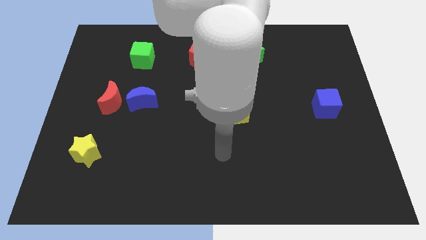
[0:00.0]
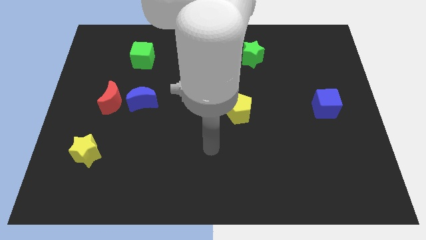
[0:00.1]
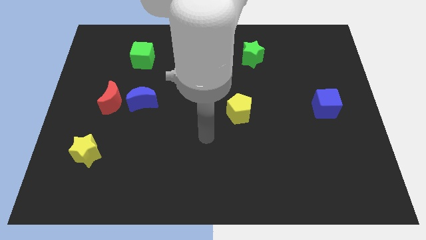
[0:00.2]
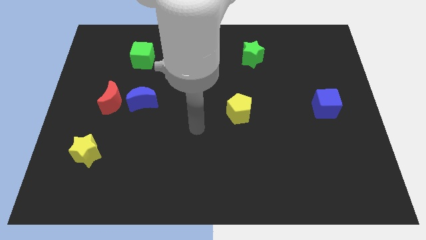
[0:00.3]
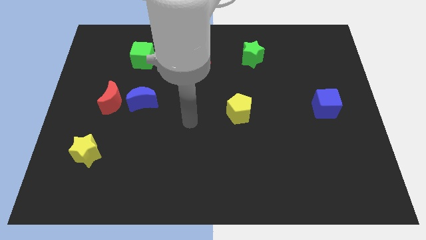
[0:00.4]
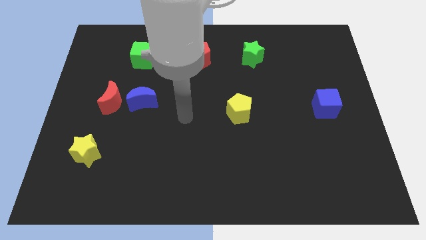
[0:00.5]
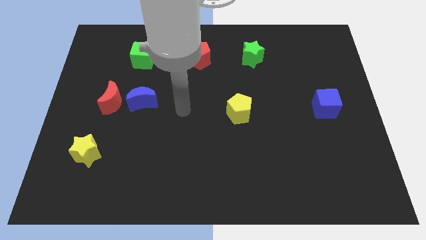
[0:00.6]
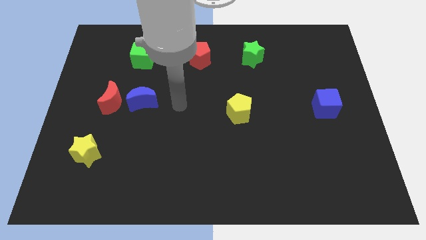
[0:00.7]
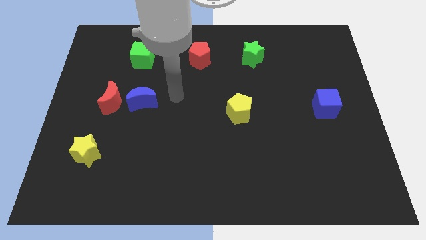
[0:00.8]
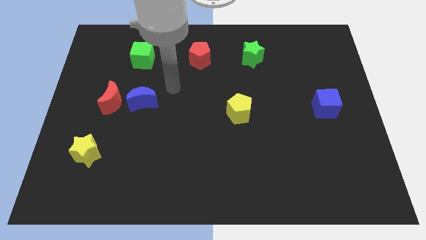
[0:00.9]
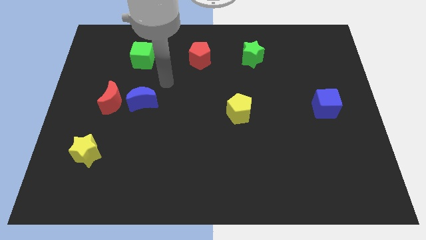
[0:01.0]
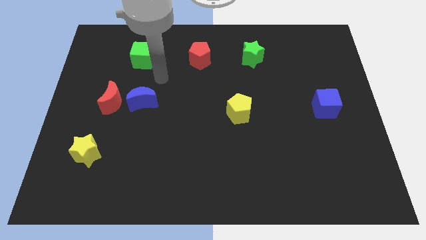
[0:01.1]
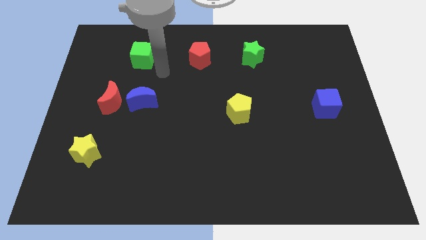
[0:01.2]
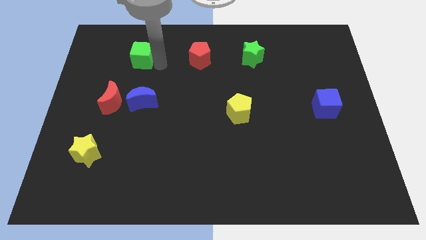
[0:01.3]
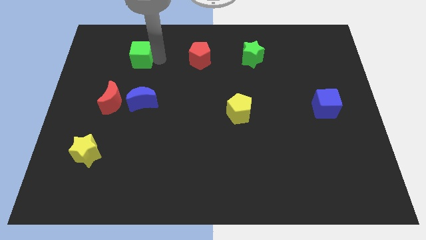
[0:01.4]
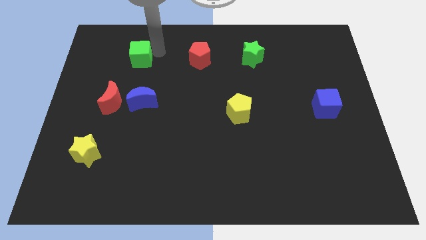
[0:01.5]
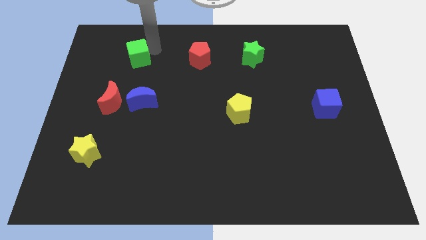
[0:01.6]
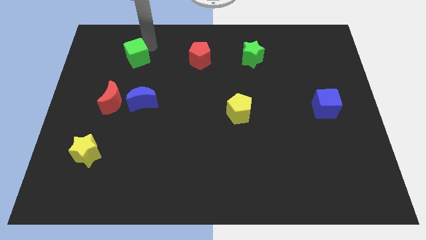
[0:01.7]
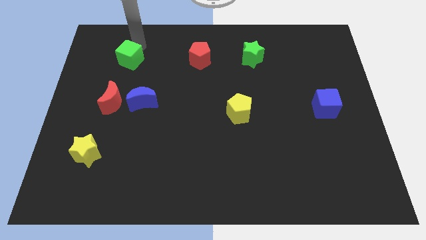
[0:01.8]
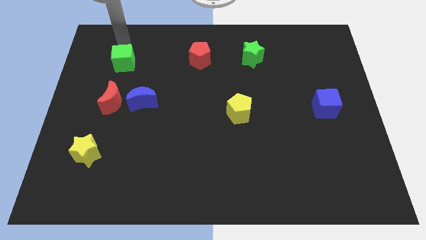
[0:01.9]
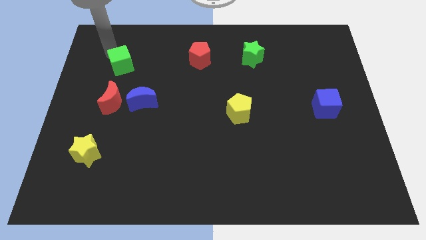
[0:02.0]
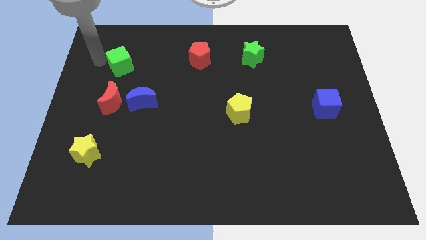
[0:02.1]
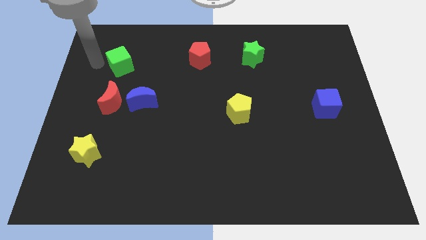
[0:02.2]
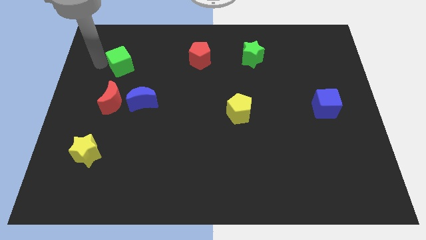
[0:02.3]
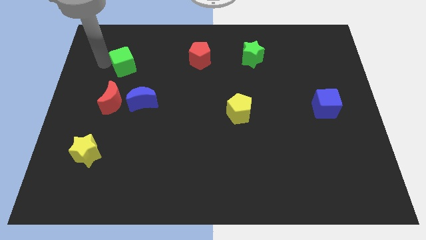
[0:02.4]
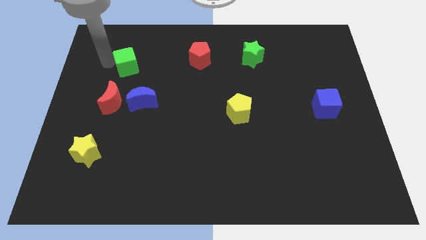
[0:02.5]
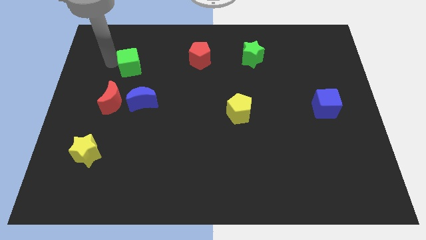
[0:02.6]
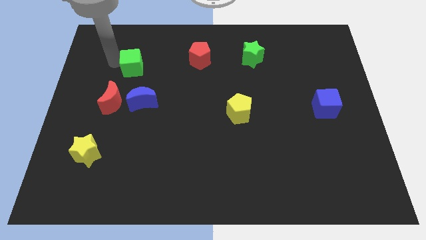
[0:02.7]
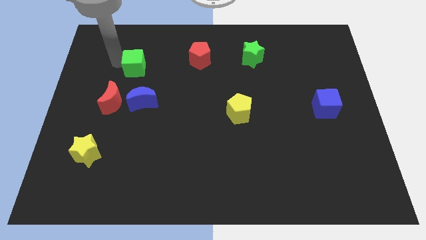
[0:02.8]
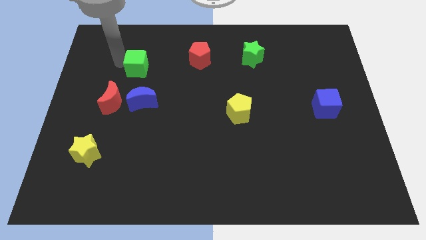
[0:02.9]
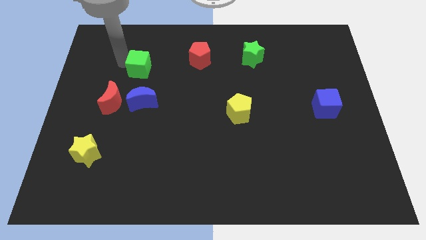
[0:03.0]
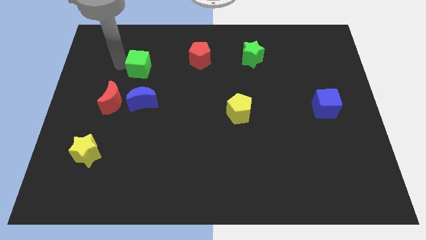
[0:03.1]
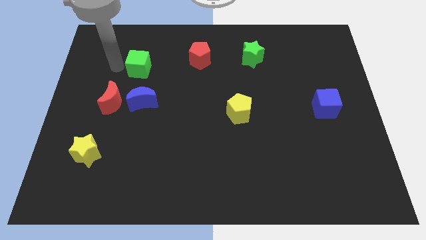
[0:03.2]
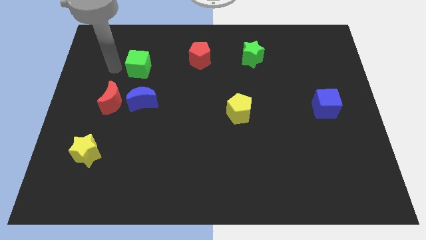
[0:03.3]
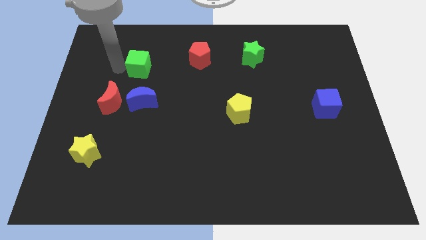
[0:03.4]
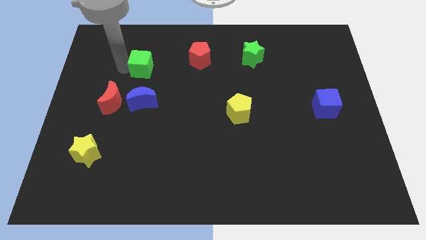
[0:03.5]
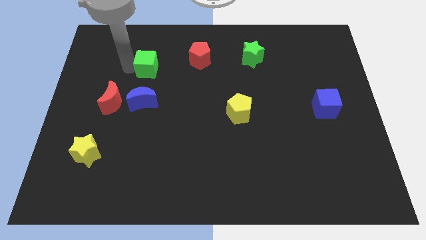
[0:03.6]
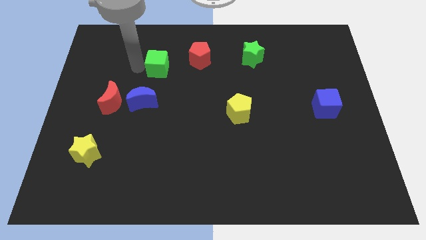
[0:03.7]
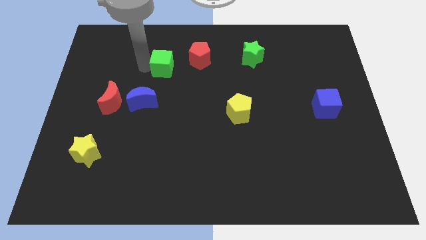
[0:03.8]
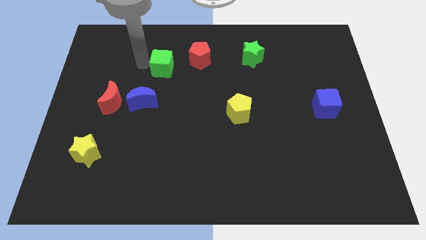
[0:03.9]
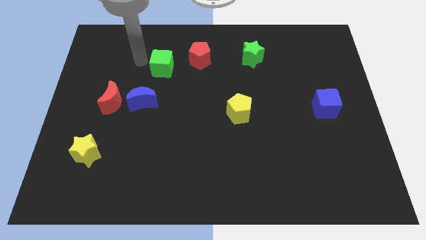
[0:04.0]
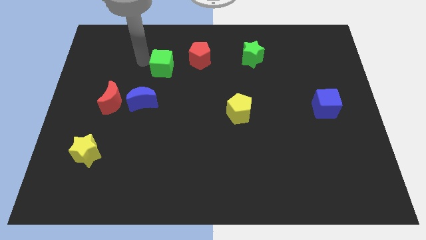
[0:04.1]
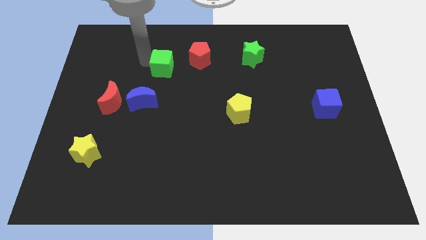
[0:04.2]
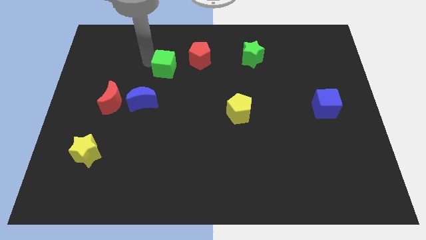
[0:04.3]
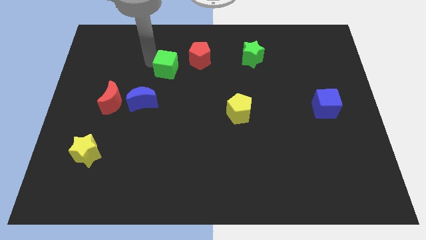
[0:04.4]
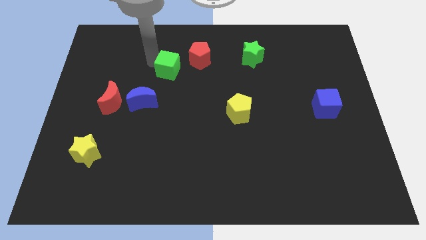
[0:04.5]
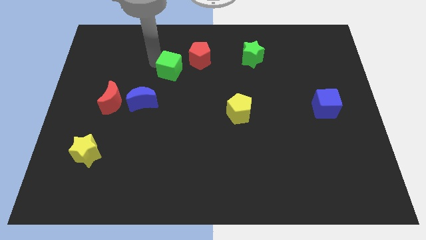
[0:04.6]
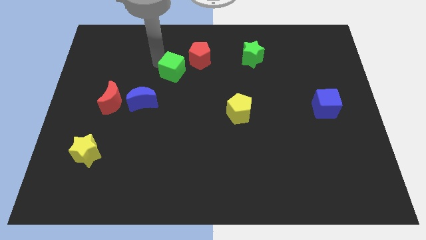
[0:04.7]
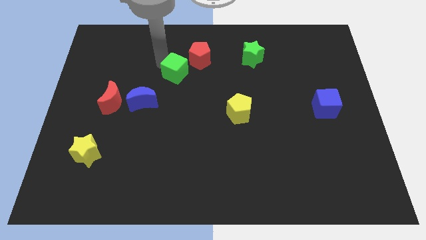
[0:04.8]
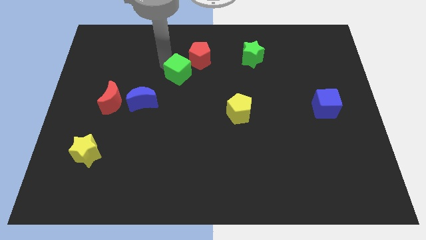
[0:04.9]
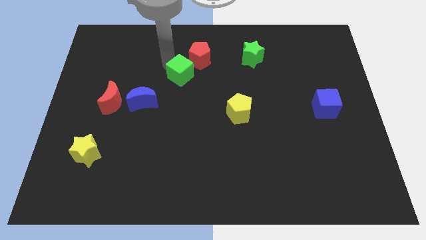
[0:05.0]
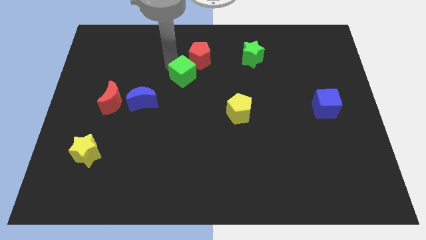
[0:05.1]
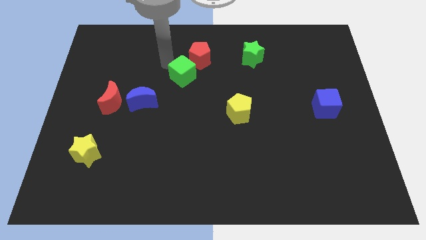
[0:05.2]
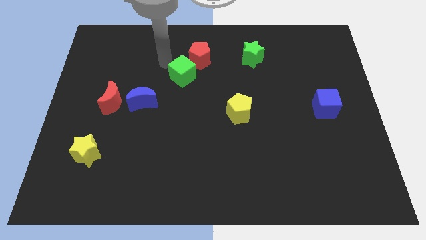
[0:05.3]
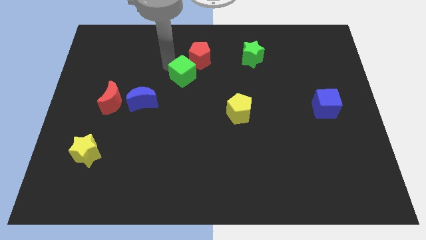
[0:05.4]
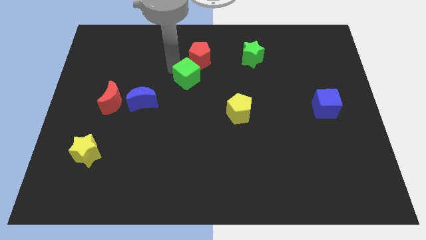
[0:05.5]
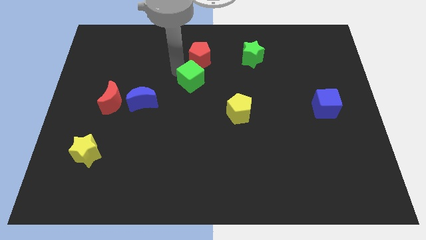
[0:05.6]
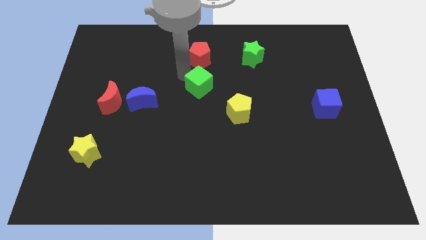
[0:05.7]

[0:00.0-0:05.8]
move the green cube to the top left of the yellow pentagon

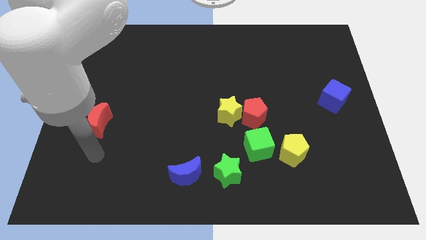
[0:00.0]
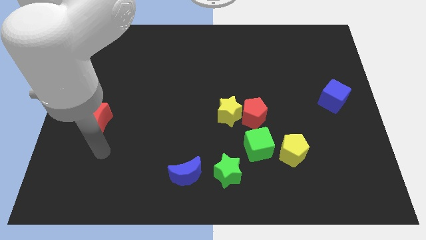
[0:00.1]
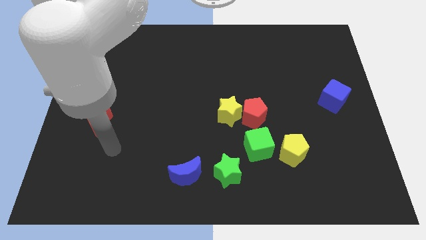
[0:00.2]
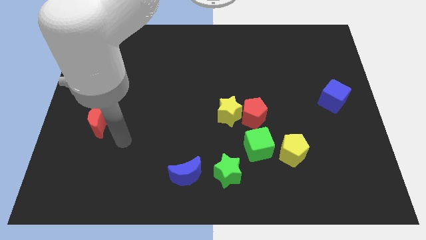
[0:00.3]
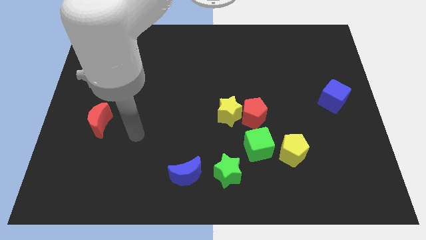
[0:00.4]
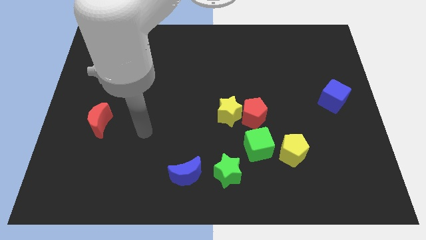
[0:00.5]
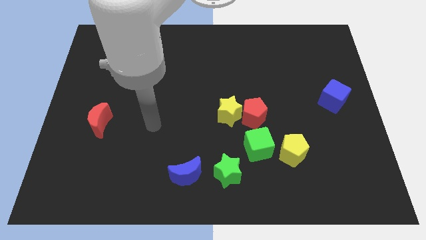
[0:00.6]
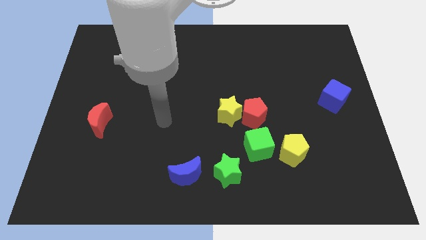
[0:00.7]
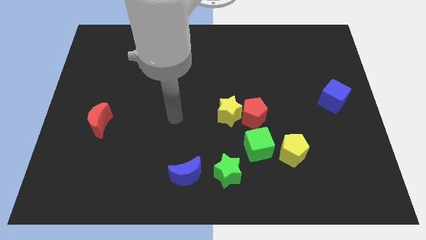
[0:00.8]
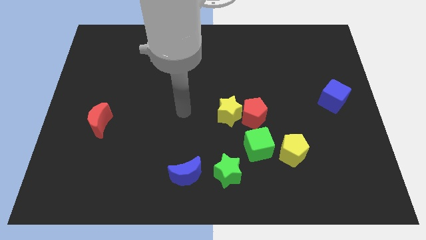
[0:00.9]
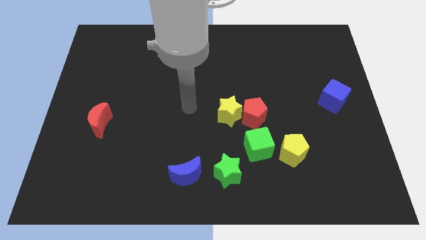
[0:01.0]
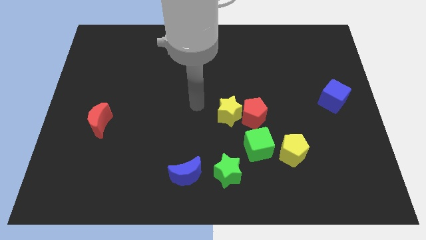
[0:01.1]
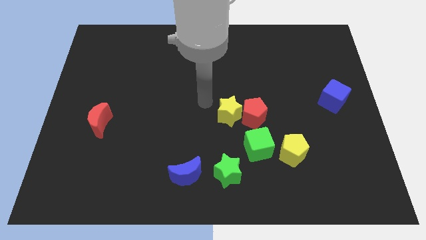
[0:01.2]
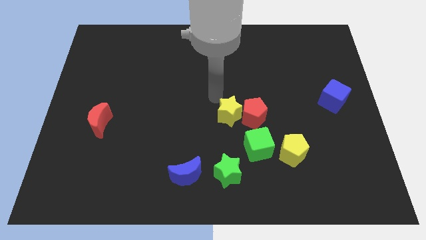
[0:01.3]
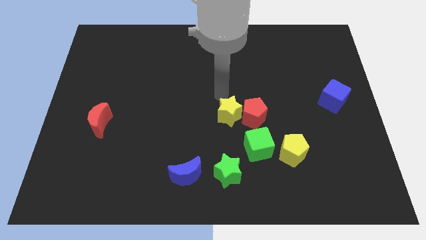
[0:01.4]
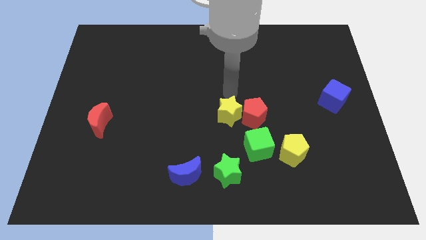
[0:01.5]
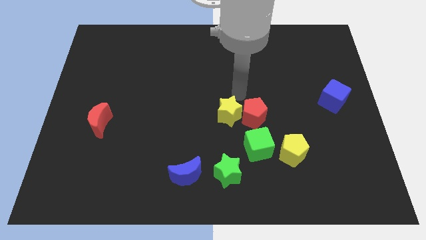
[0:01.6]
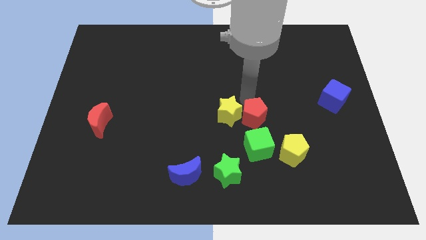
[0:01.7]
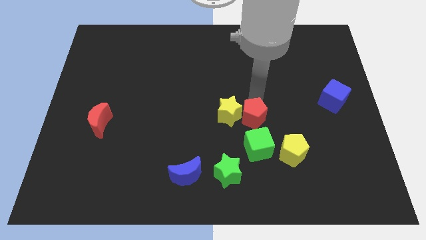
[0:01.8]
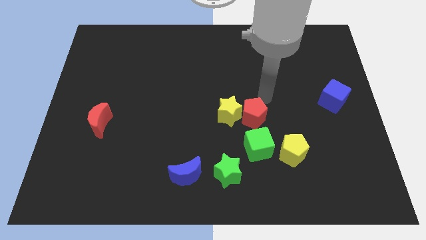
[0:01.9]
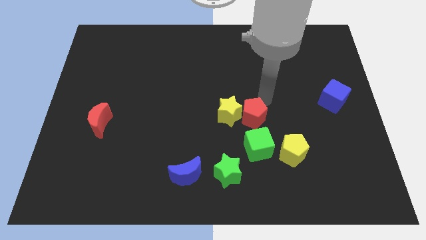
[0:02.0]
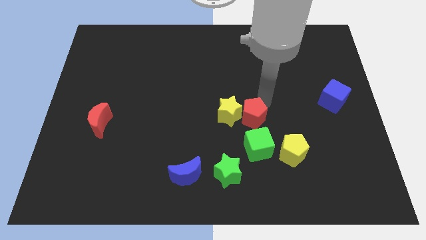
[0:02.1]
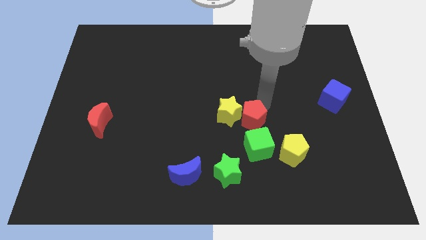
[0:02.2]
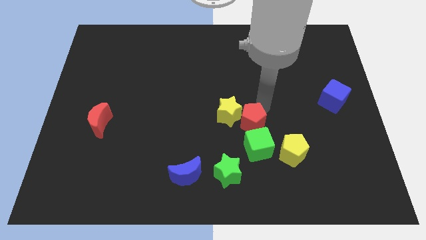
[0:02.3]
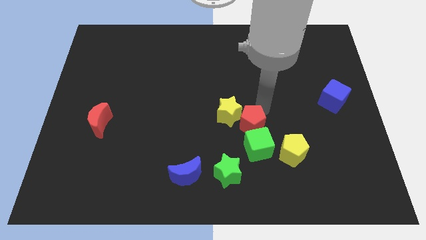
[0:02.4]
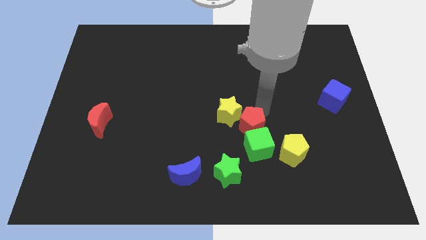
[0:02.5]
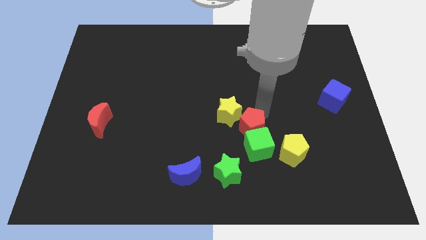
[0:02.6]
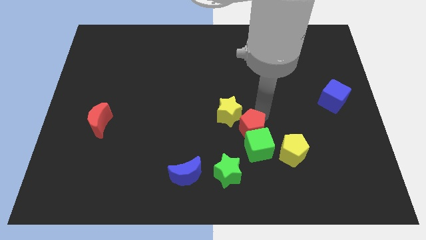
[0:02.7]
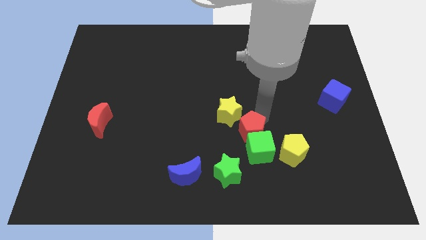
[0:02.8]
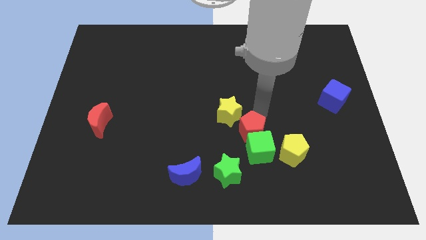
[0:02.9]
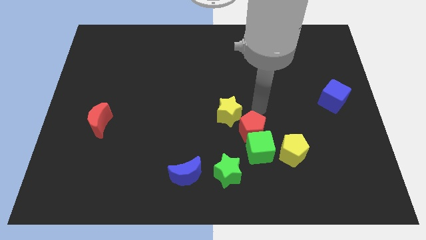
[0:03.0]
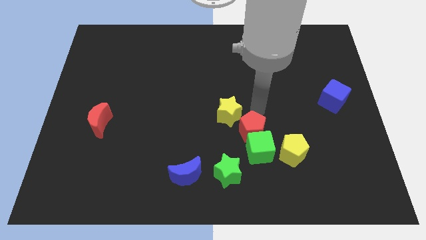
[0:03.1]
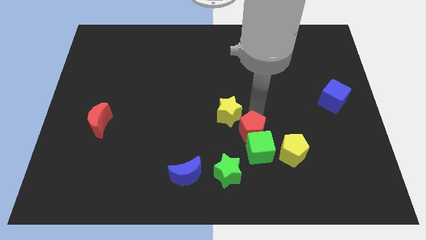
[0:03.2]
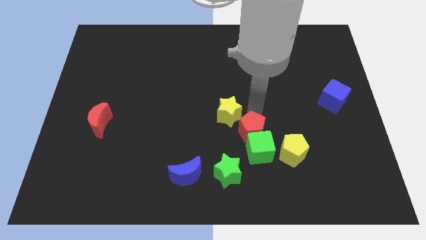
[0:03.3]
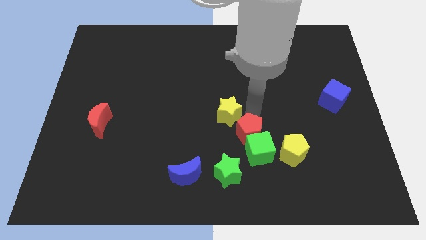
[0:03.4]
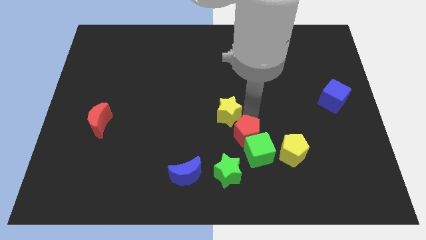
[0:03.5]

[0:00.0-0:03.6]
slide the red pentagon to the left side of the yellow pentagon
